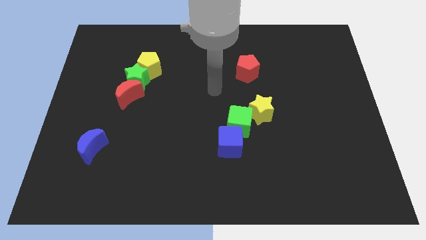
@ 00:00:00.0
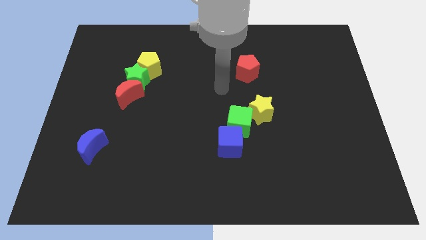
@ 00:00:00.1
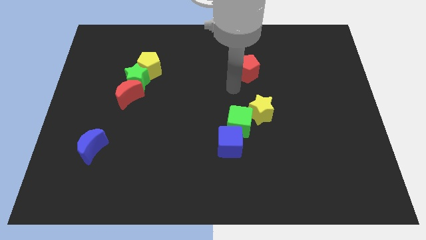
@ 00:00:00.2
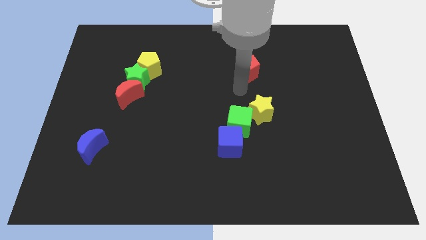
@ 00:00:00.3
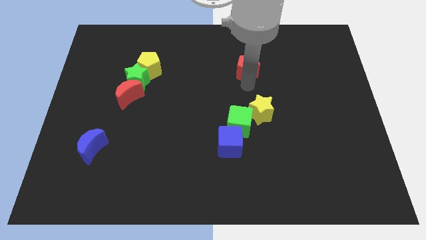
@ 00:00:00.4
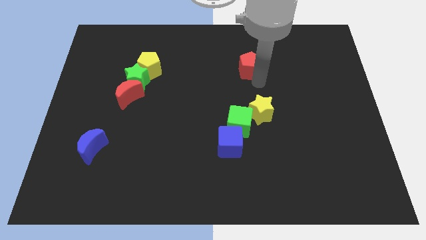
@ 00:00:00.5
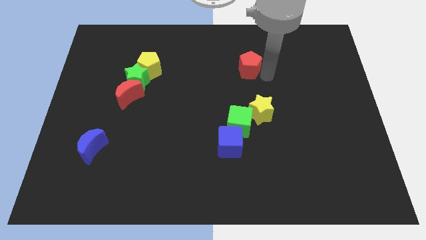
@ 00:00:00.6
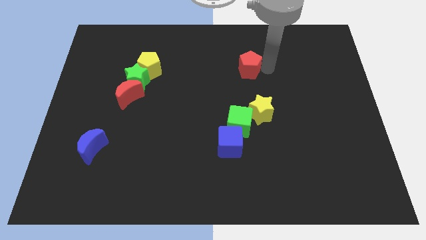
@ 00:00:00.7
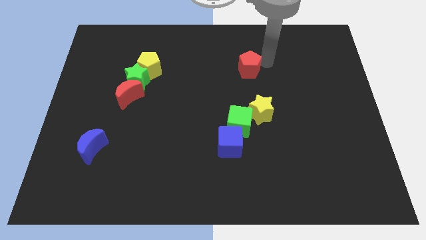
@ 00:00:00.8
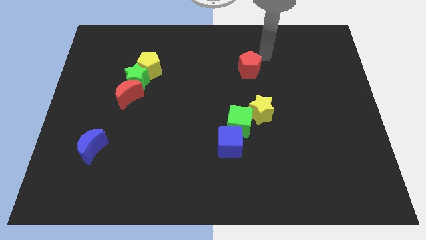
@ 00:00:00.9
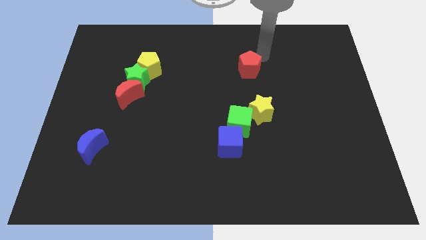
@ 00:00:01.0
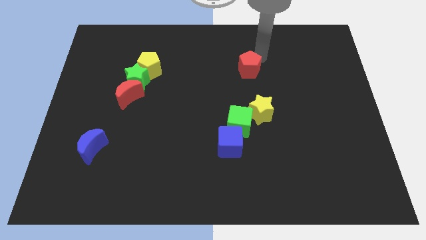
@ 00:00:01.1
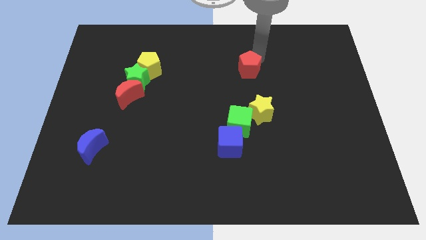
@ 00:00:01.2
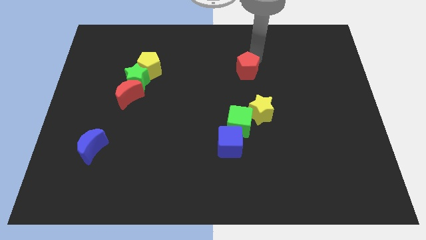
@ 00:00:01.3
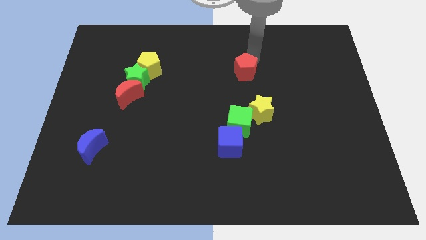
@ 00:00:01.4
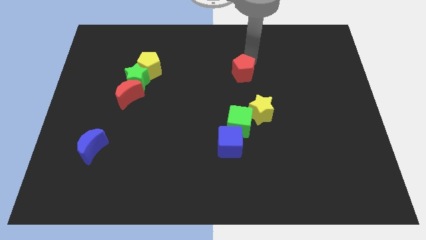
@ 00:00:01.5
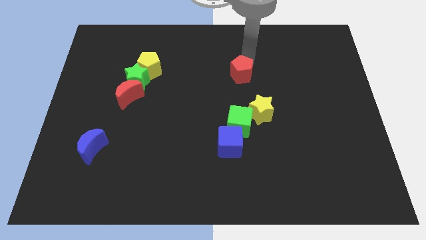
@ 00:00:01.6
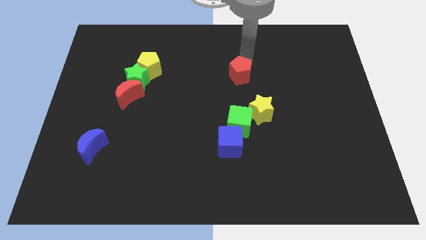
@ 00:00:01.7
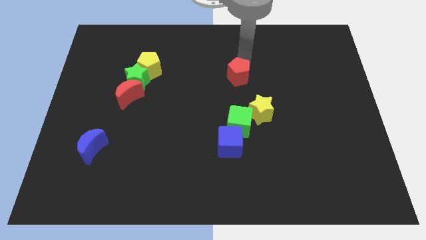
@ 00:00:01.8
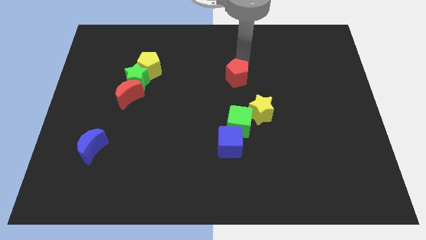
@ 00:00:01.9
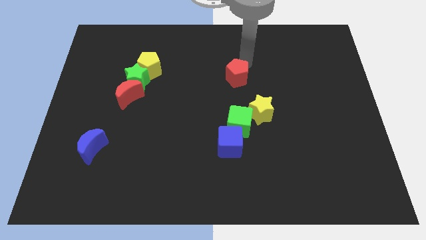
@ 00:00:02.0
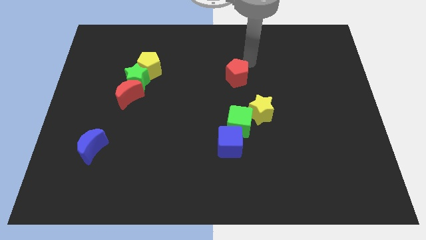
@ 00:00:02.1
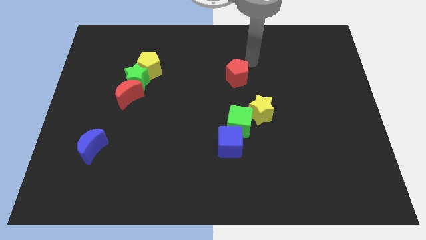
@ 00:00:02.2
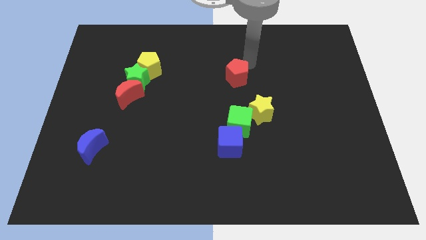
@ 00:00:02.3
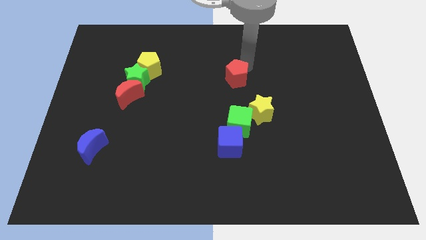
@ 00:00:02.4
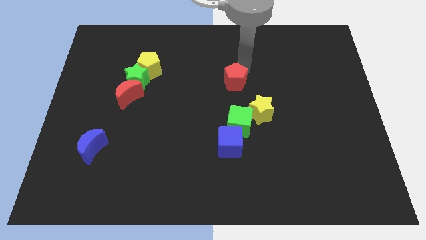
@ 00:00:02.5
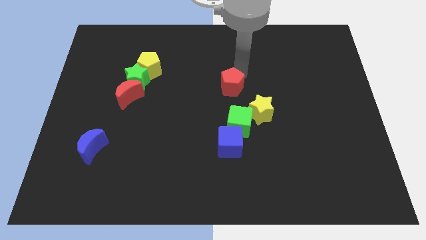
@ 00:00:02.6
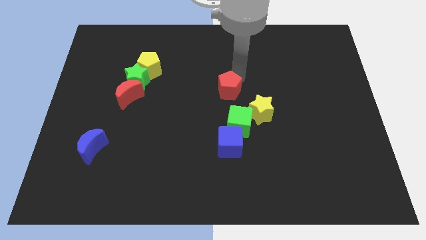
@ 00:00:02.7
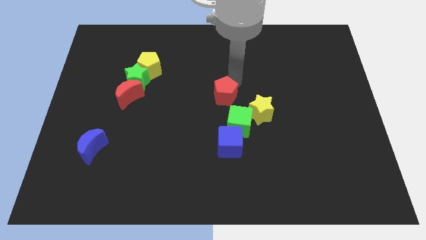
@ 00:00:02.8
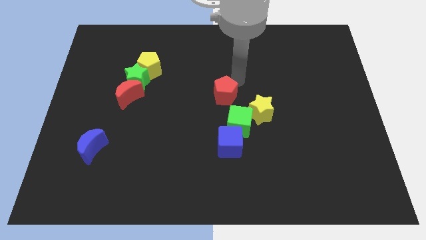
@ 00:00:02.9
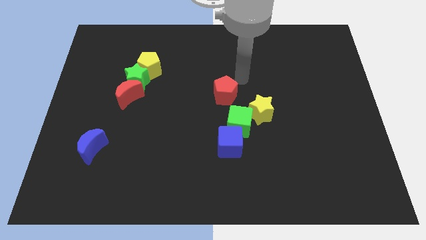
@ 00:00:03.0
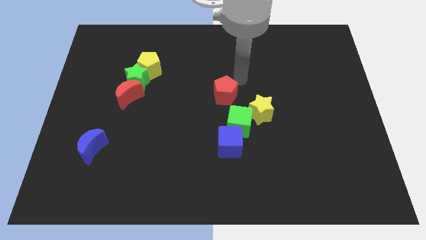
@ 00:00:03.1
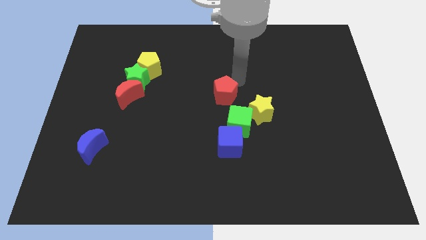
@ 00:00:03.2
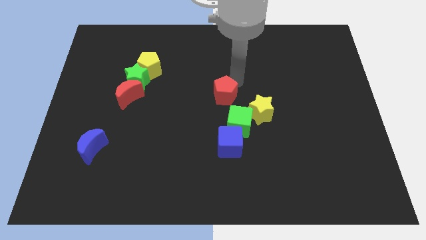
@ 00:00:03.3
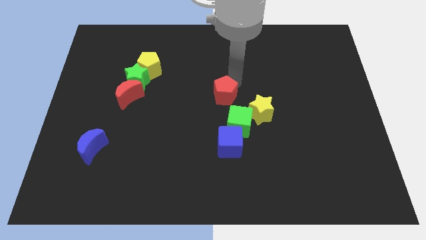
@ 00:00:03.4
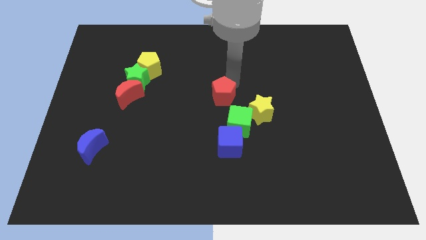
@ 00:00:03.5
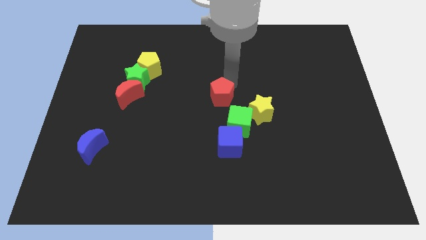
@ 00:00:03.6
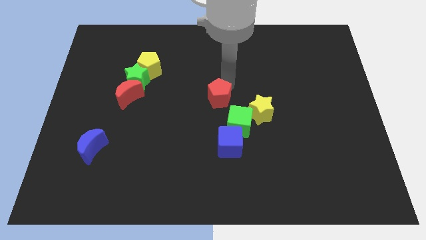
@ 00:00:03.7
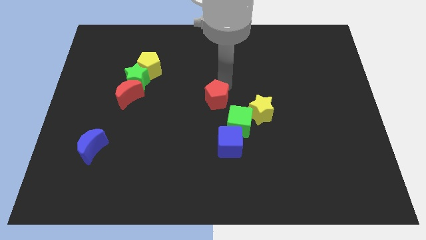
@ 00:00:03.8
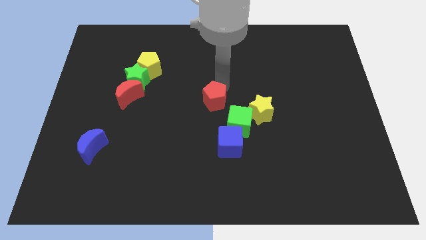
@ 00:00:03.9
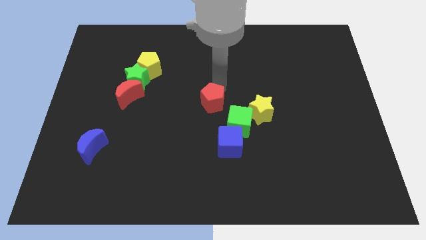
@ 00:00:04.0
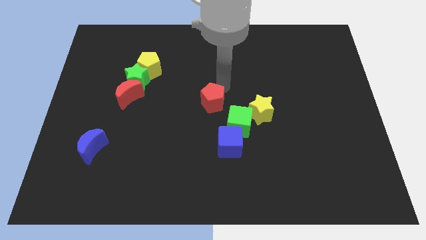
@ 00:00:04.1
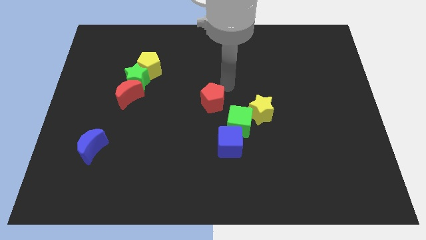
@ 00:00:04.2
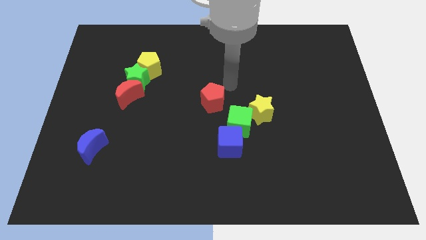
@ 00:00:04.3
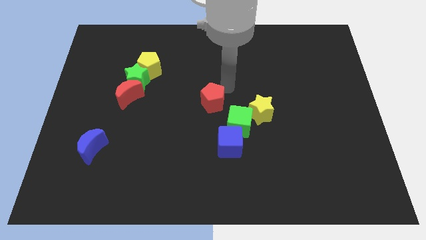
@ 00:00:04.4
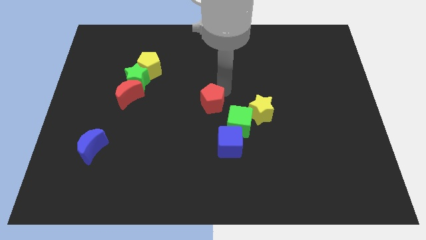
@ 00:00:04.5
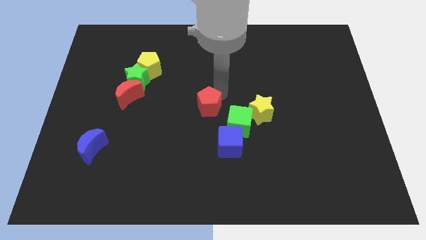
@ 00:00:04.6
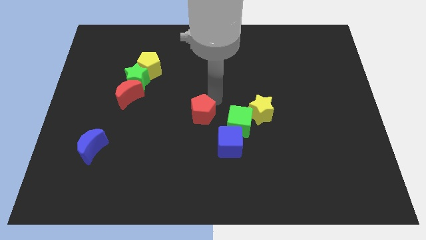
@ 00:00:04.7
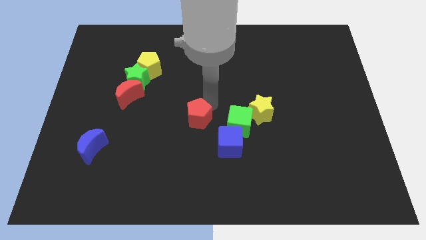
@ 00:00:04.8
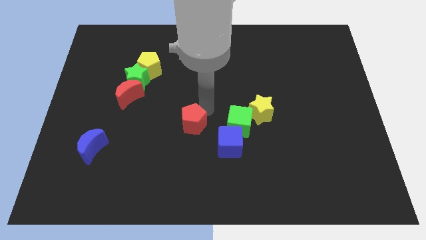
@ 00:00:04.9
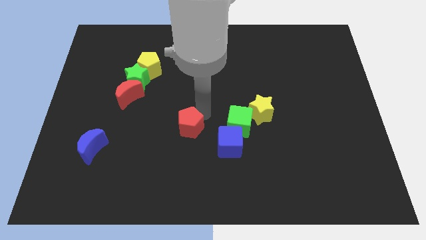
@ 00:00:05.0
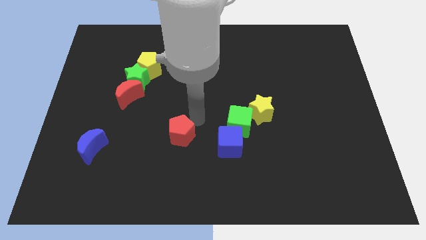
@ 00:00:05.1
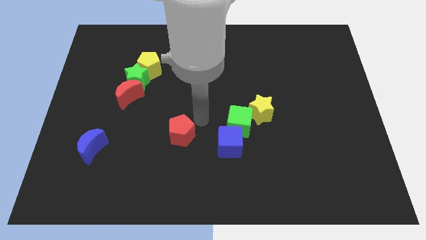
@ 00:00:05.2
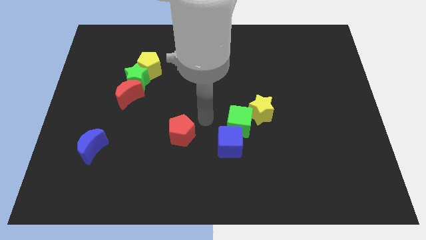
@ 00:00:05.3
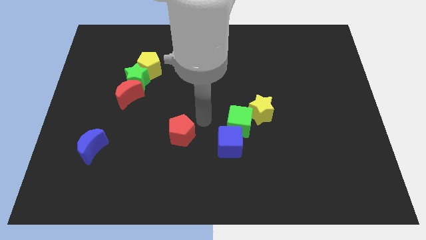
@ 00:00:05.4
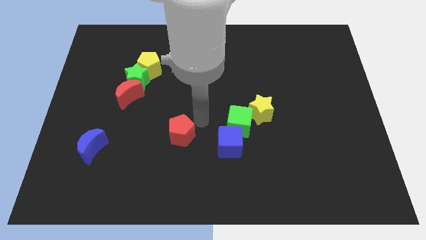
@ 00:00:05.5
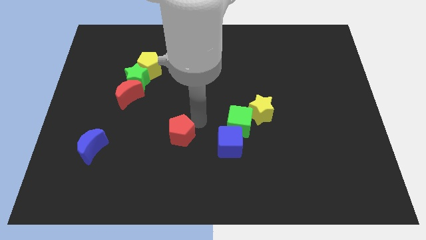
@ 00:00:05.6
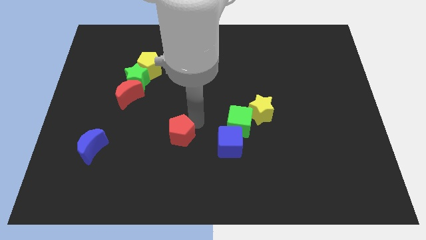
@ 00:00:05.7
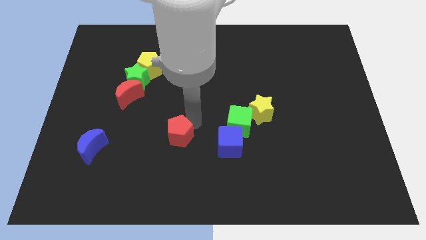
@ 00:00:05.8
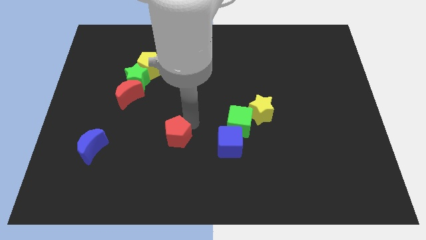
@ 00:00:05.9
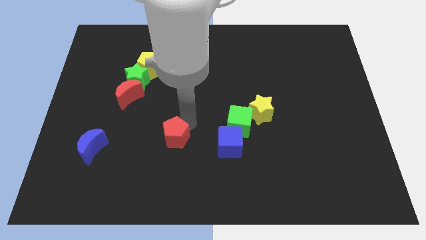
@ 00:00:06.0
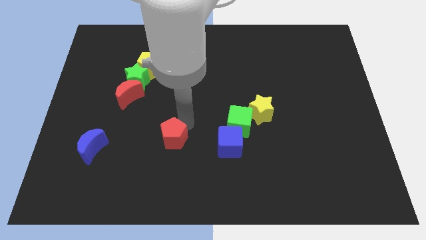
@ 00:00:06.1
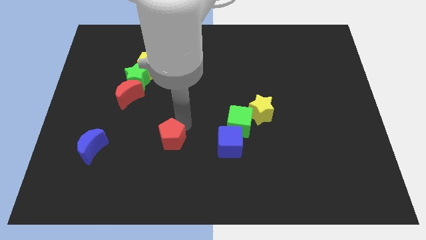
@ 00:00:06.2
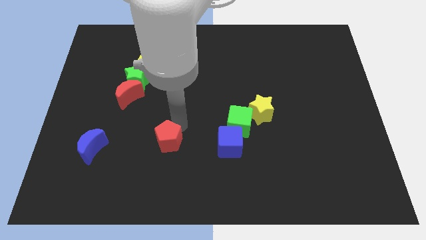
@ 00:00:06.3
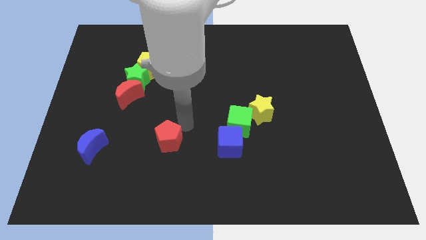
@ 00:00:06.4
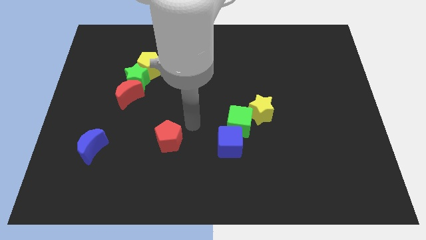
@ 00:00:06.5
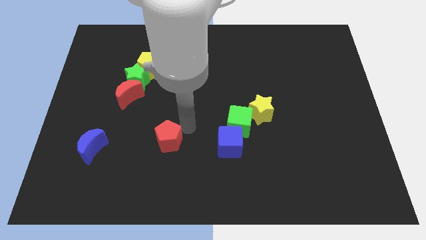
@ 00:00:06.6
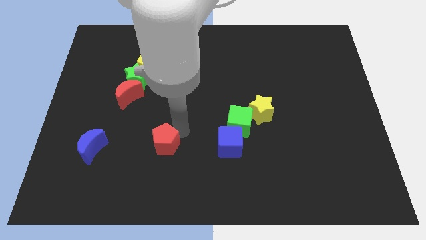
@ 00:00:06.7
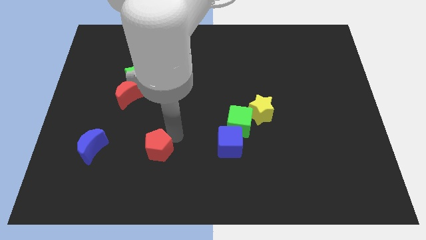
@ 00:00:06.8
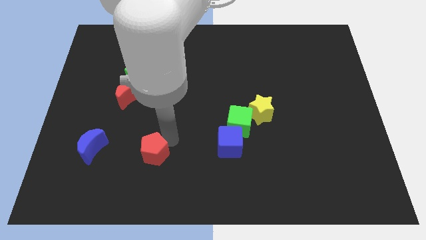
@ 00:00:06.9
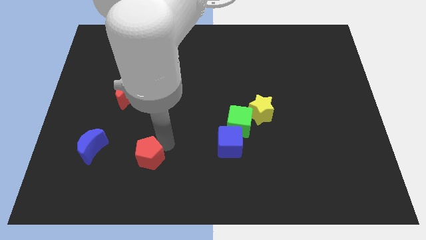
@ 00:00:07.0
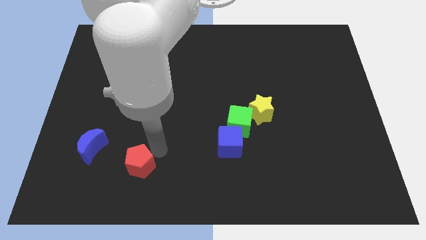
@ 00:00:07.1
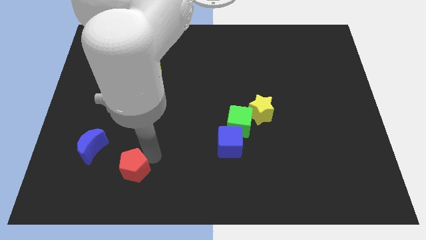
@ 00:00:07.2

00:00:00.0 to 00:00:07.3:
push the red pentagon to the bottom right side of the blue moon
